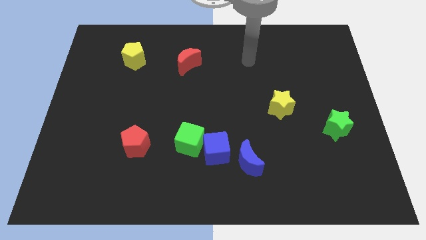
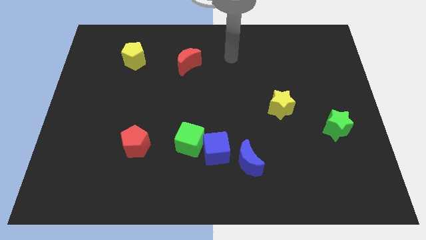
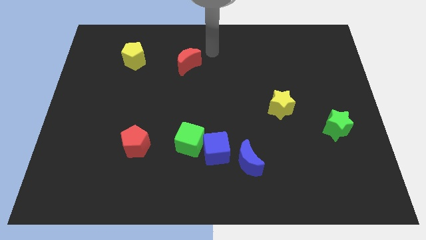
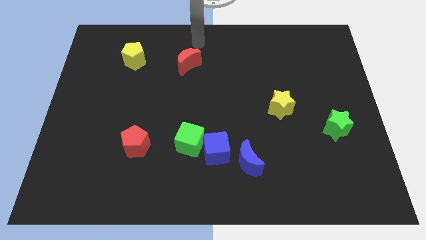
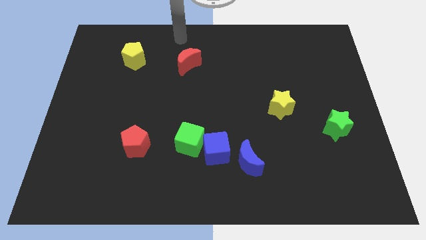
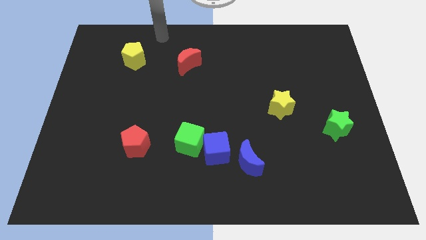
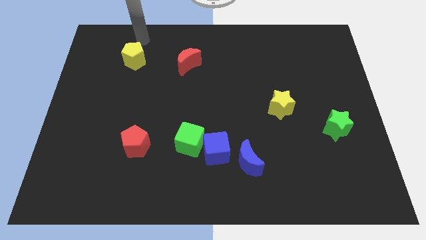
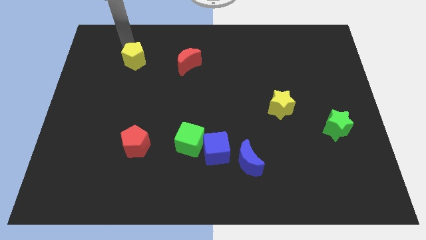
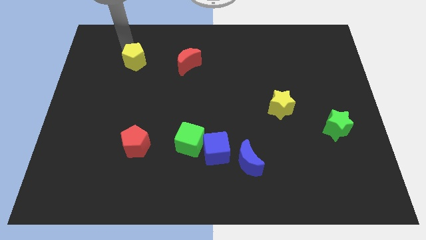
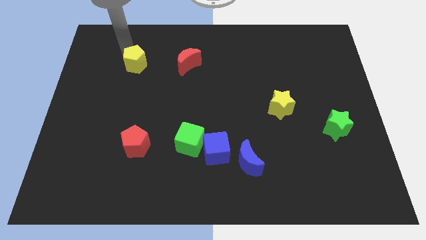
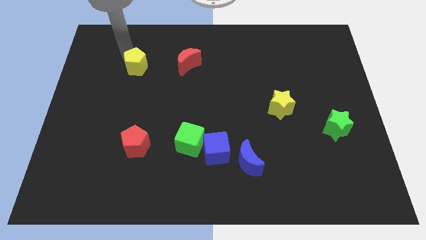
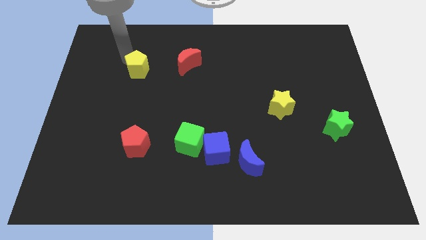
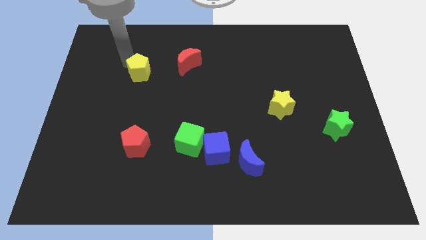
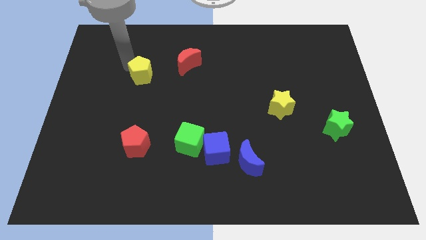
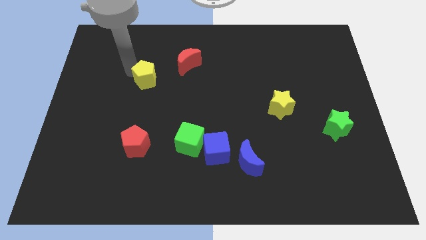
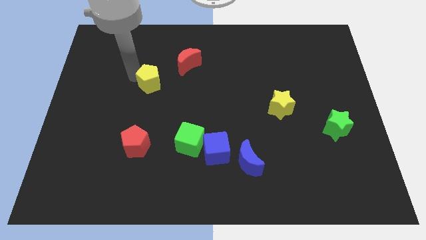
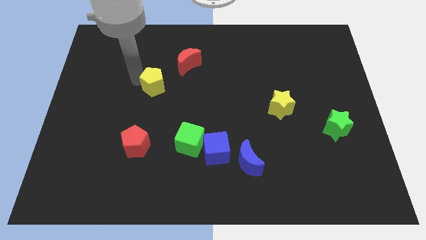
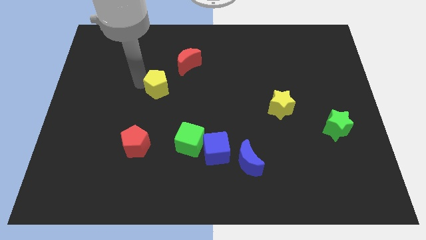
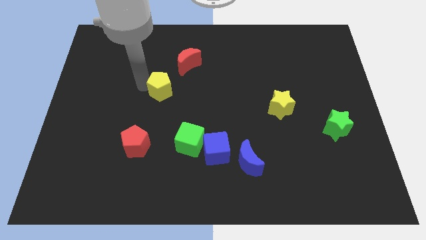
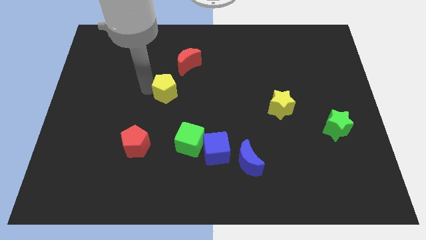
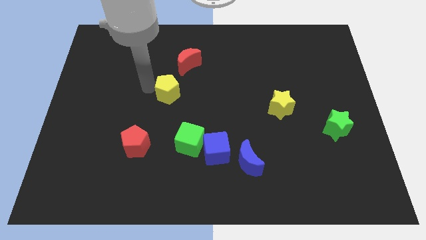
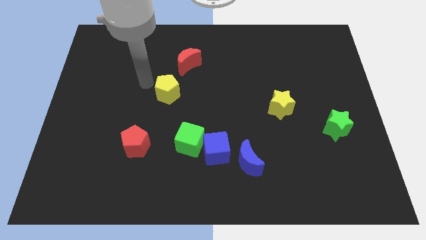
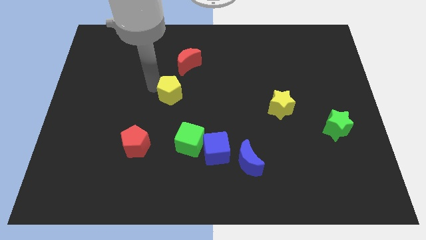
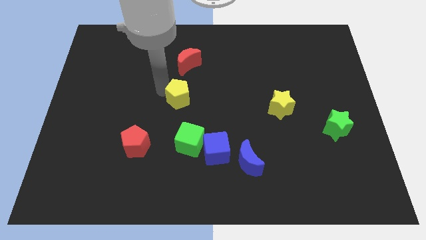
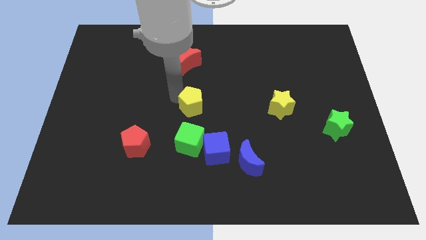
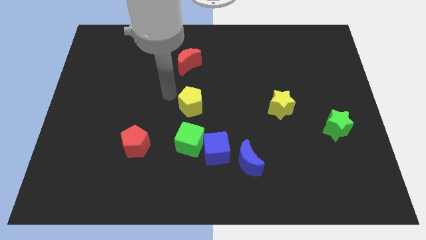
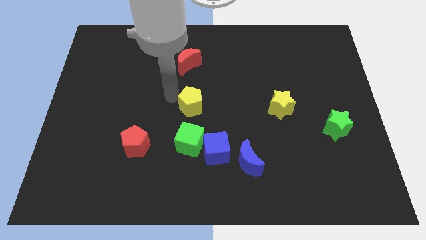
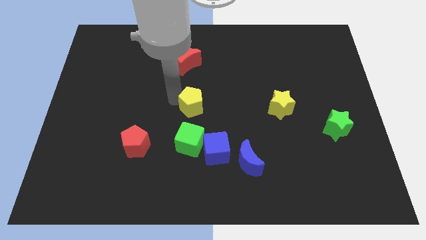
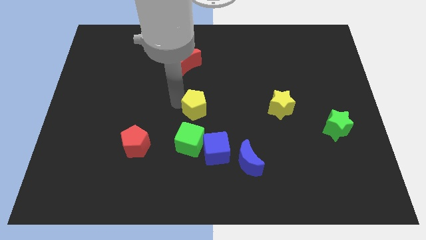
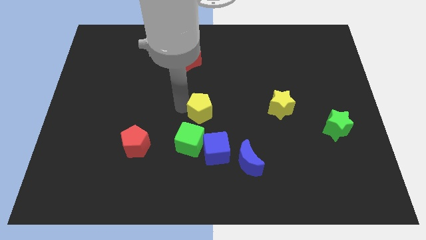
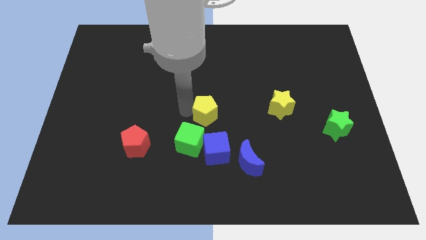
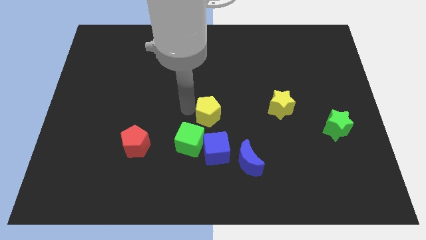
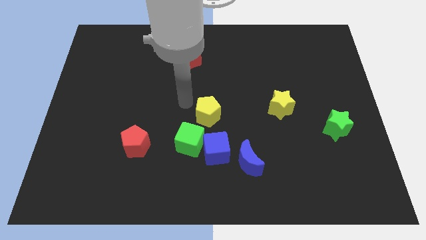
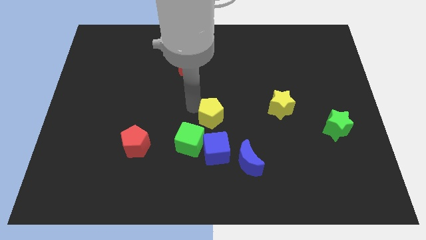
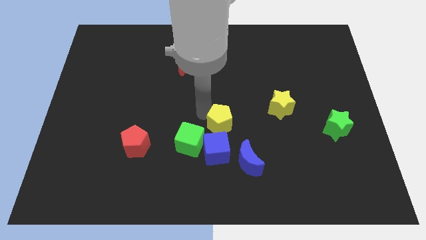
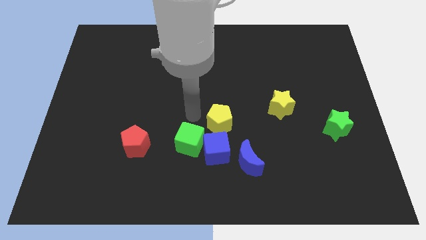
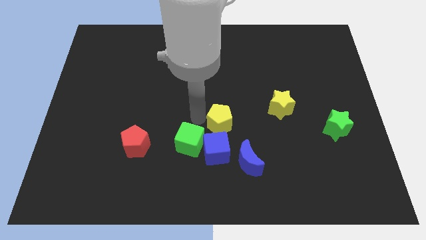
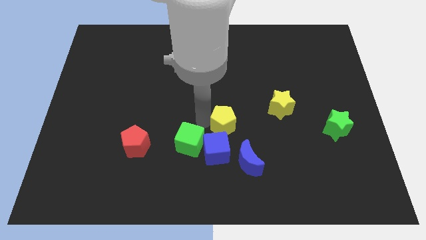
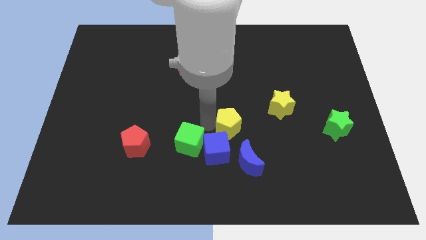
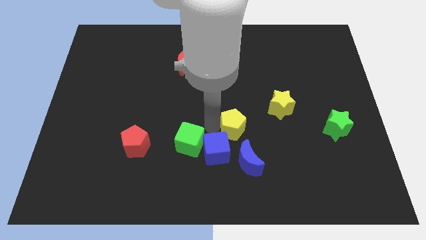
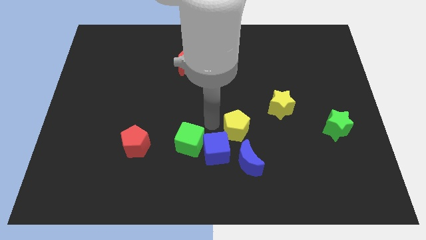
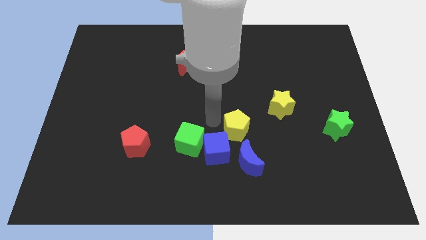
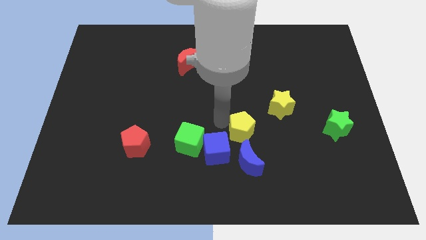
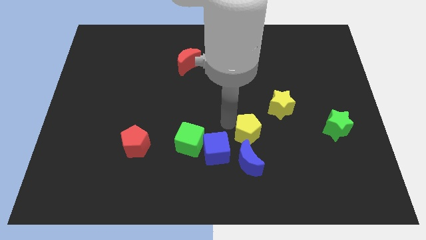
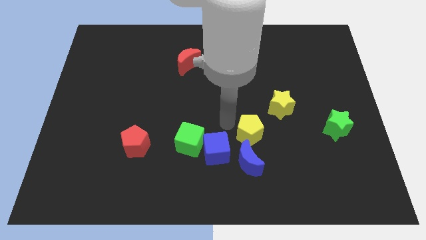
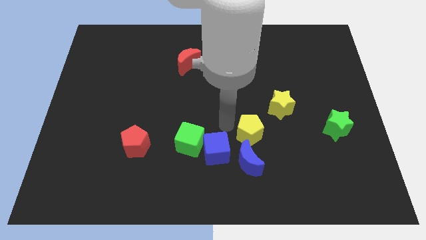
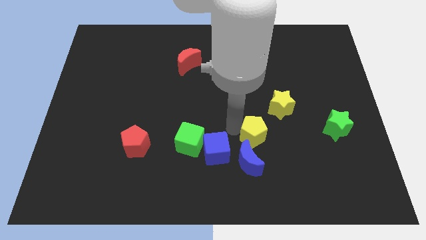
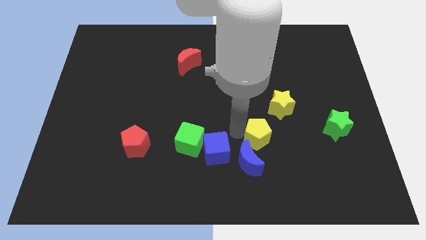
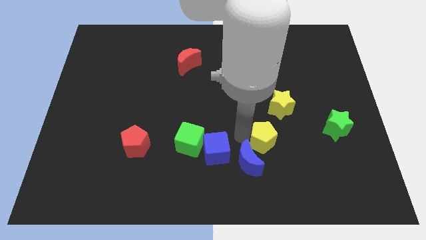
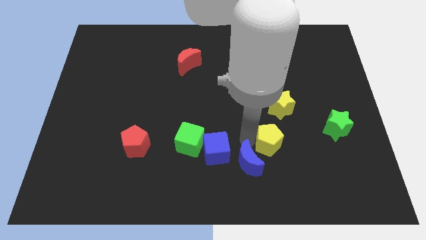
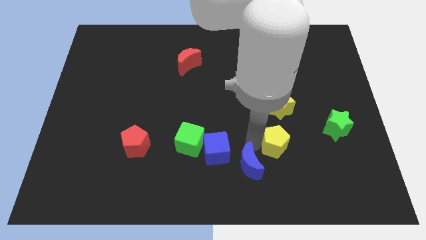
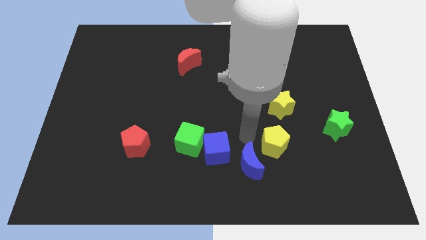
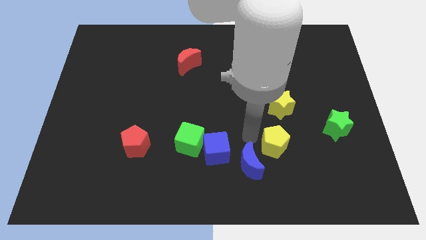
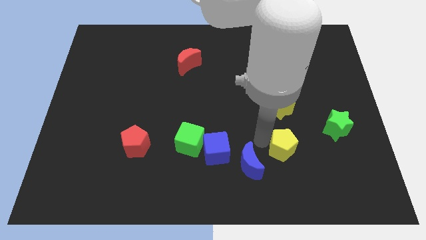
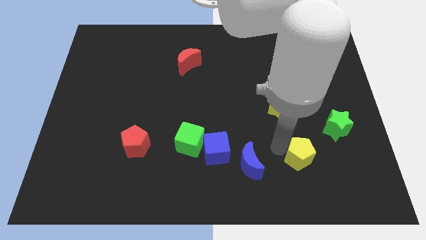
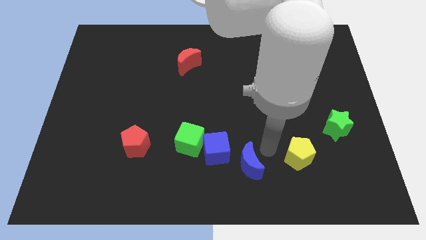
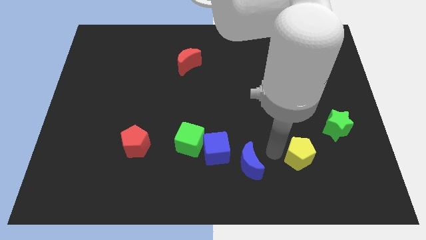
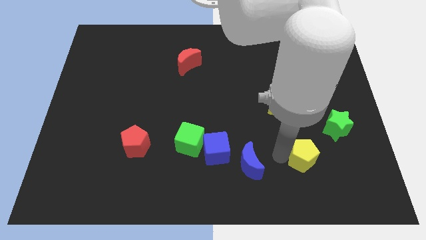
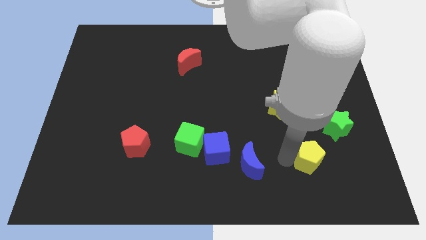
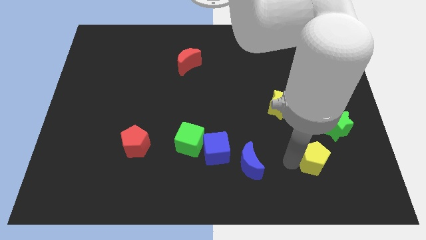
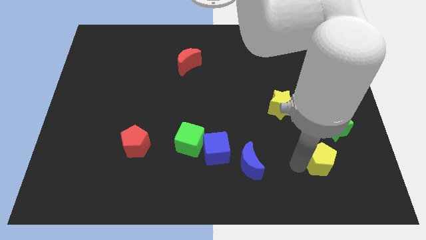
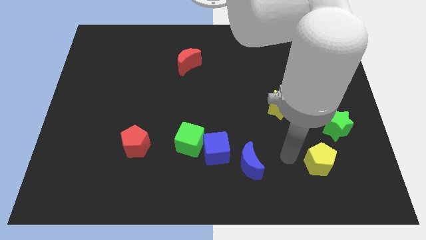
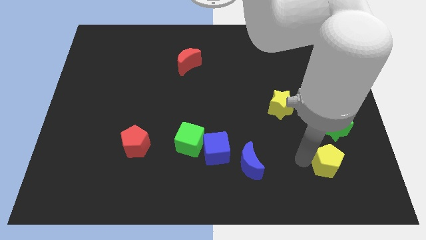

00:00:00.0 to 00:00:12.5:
slide the yellow pentagon to the bottom of the green star
